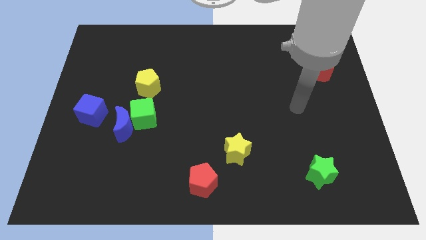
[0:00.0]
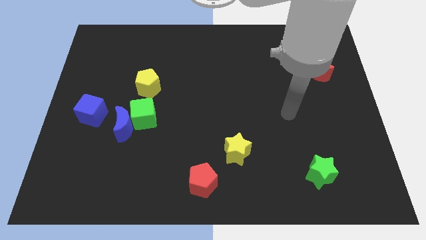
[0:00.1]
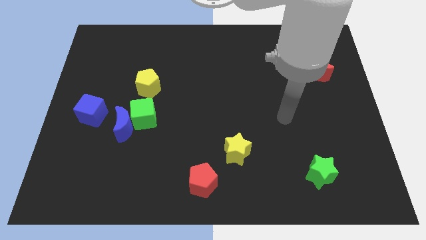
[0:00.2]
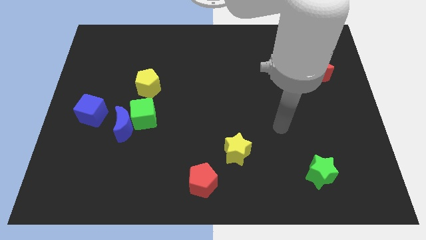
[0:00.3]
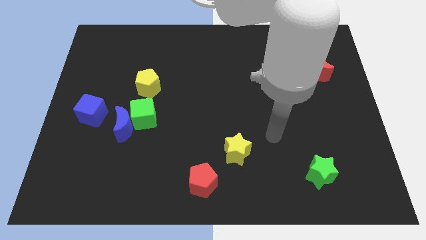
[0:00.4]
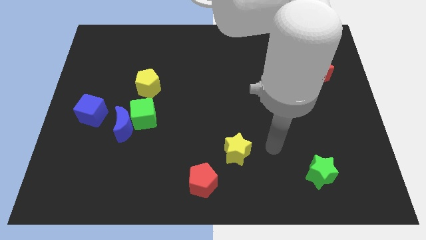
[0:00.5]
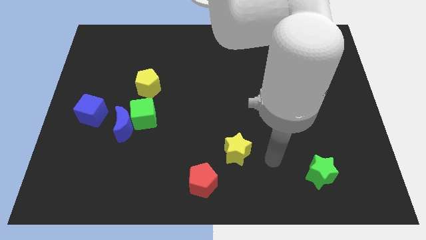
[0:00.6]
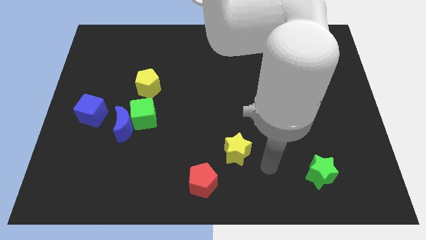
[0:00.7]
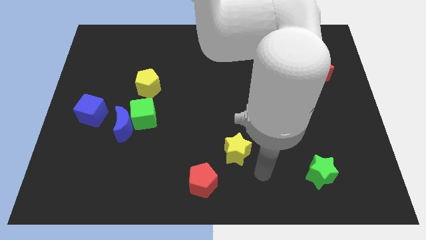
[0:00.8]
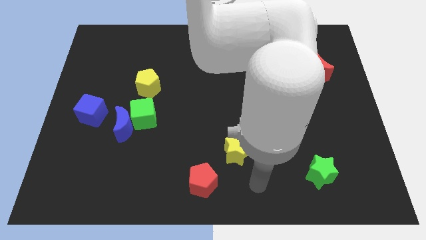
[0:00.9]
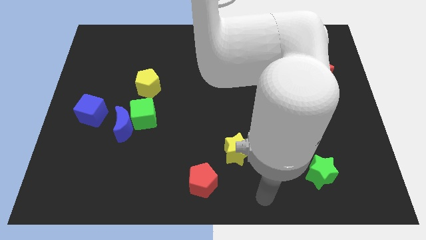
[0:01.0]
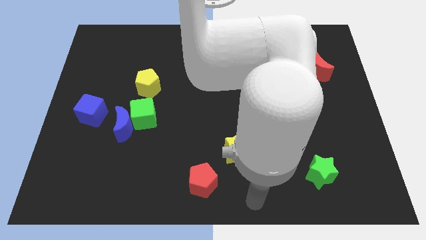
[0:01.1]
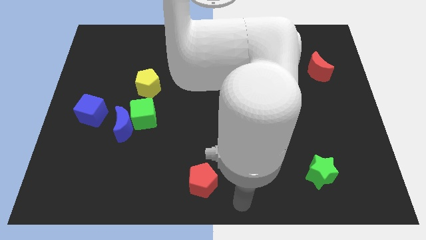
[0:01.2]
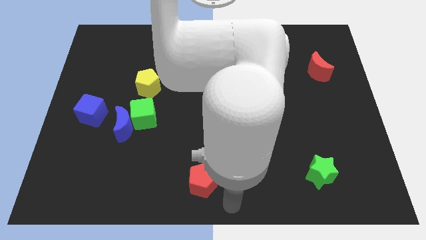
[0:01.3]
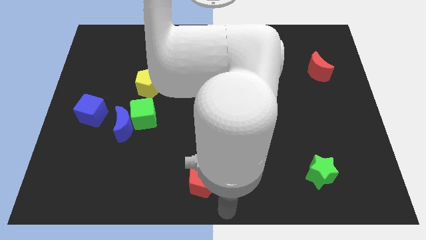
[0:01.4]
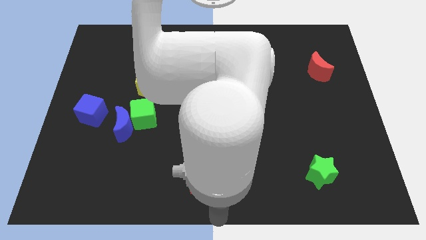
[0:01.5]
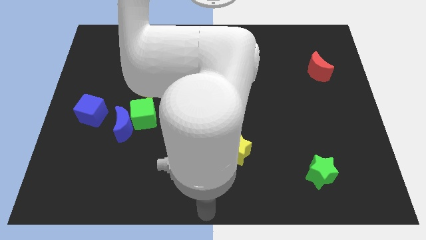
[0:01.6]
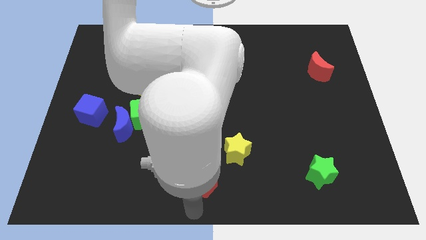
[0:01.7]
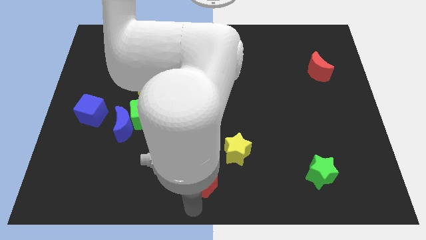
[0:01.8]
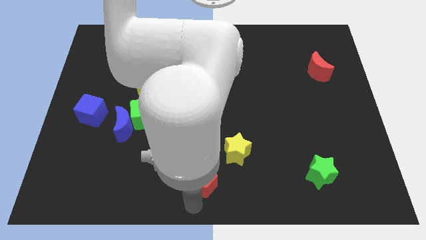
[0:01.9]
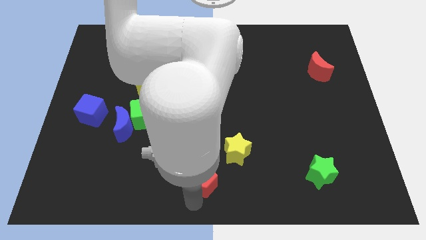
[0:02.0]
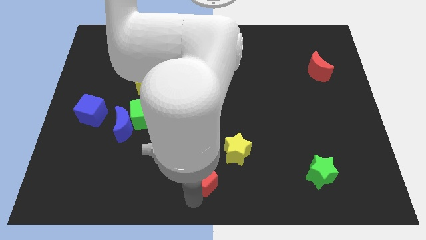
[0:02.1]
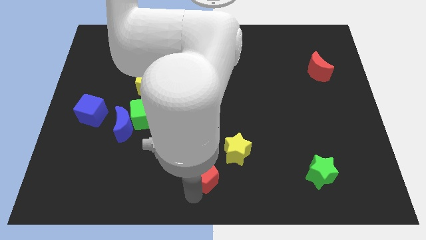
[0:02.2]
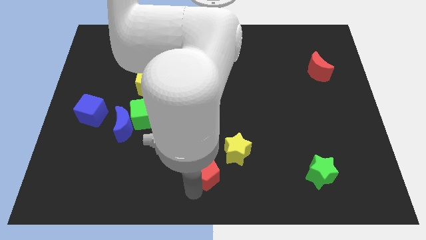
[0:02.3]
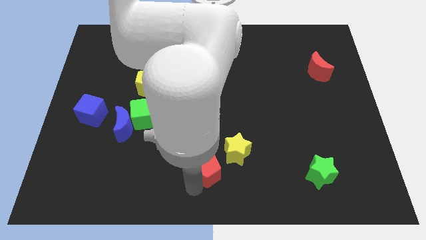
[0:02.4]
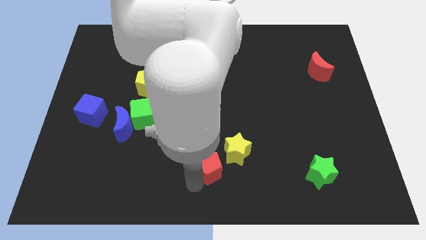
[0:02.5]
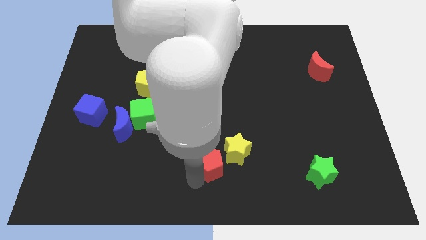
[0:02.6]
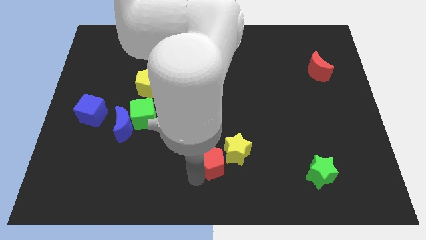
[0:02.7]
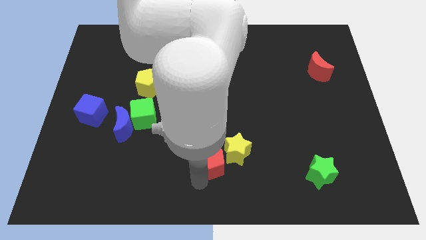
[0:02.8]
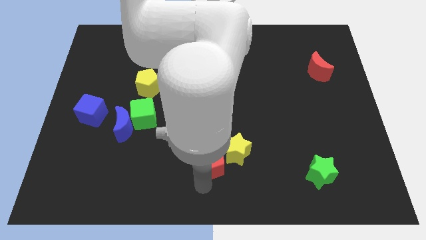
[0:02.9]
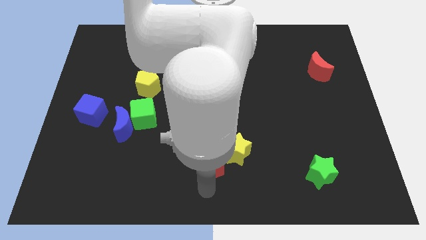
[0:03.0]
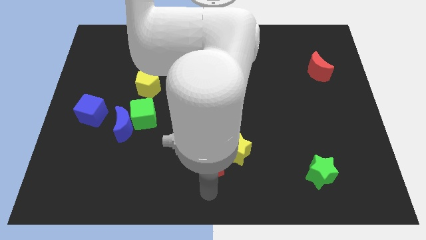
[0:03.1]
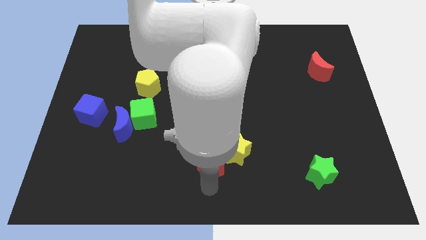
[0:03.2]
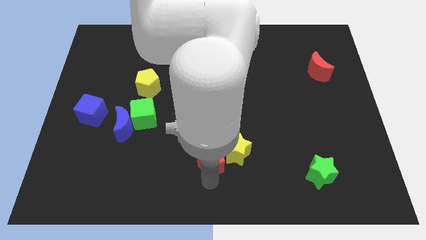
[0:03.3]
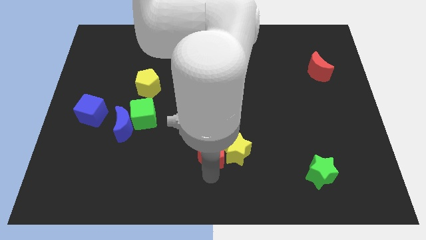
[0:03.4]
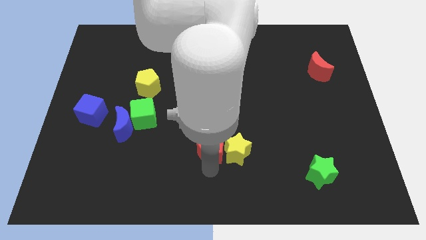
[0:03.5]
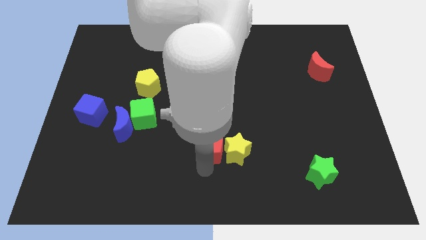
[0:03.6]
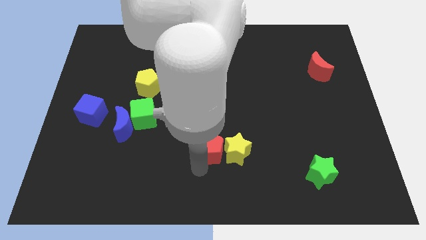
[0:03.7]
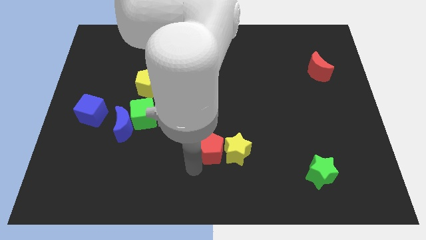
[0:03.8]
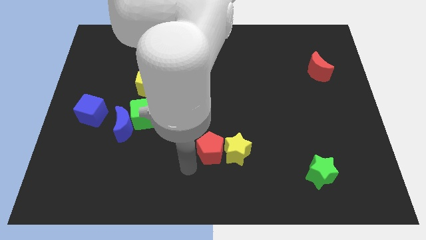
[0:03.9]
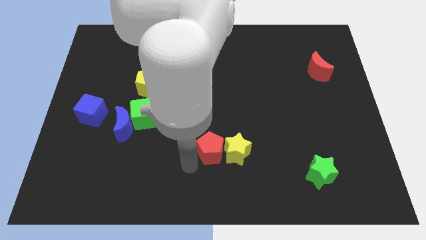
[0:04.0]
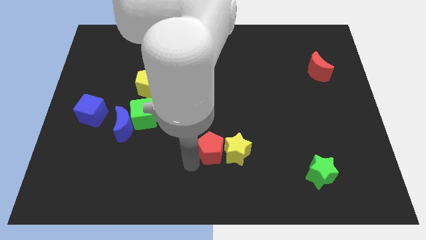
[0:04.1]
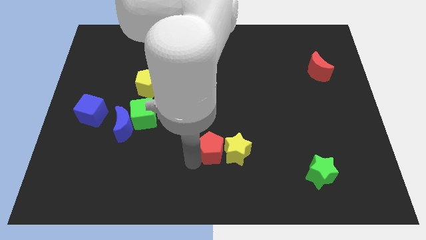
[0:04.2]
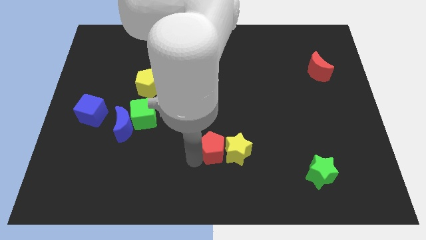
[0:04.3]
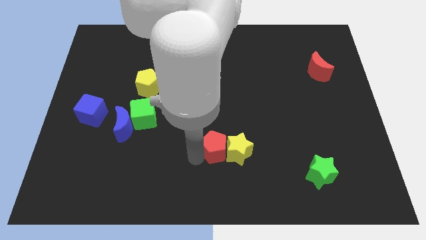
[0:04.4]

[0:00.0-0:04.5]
move the red pentagon diagonally up and right a little bit

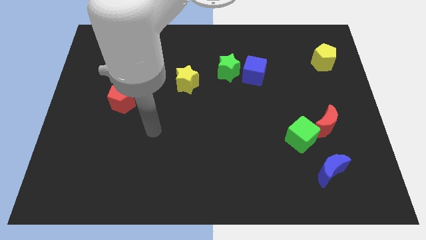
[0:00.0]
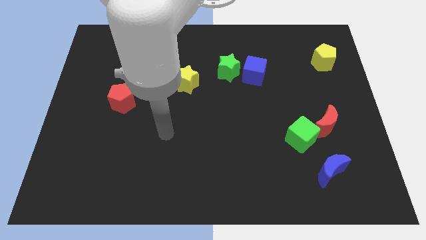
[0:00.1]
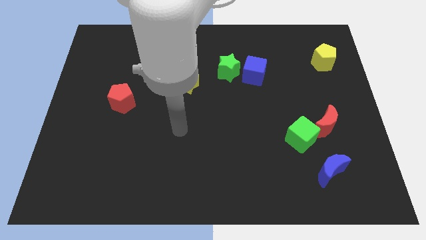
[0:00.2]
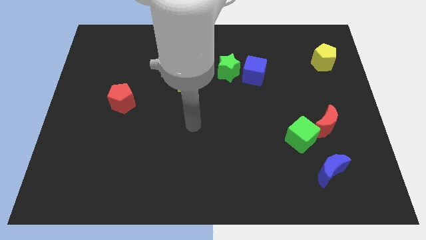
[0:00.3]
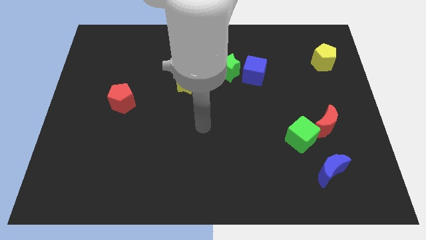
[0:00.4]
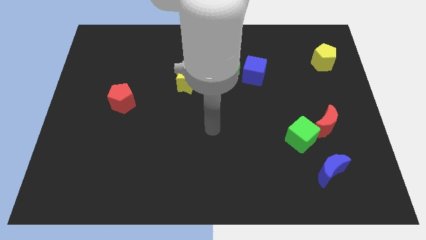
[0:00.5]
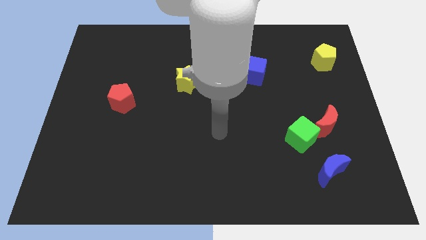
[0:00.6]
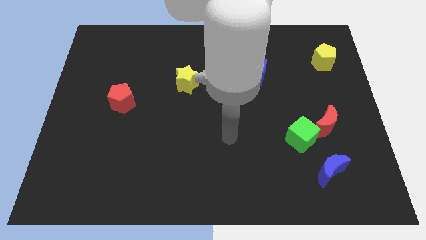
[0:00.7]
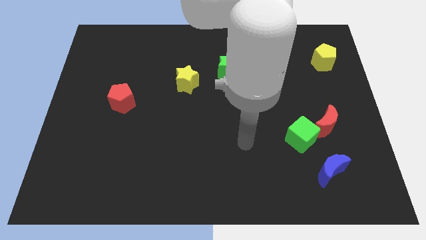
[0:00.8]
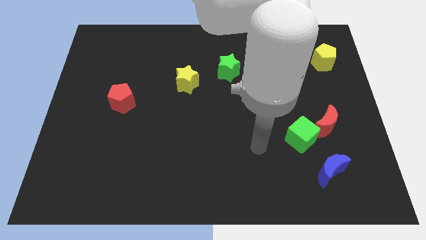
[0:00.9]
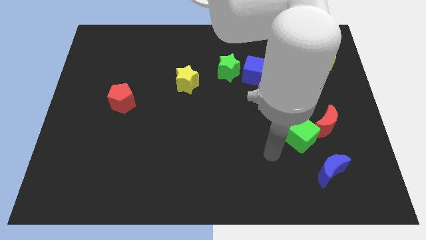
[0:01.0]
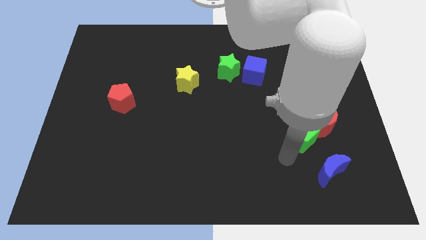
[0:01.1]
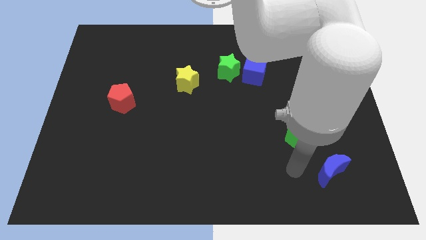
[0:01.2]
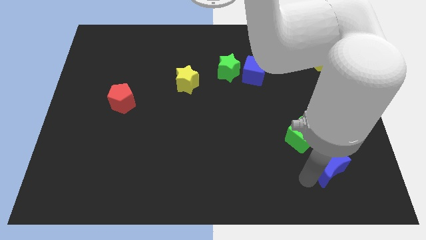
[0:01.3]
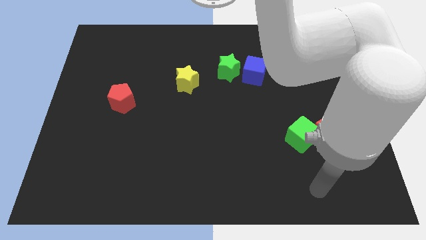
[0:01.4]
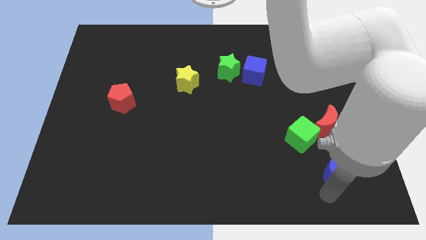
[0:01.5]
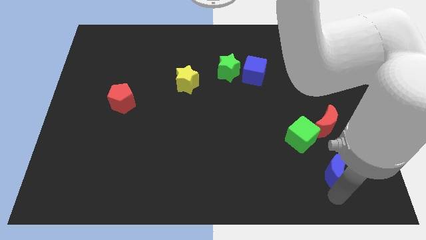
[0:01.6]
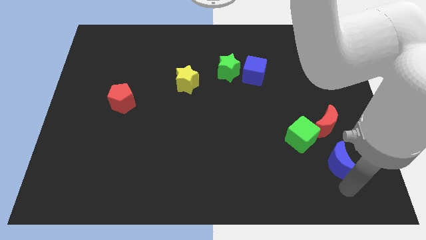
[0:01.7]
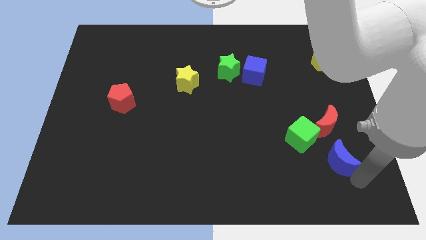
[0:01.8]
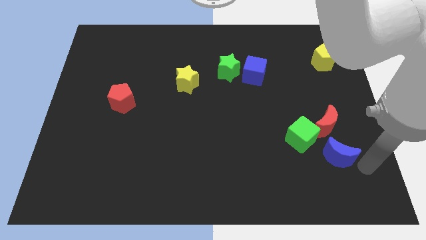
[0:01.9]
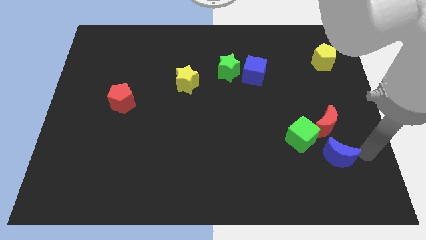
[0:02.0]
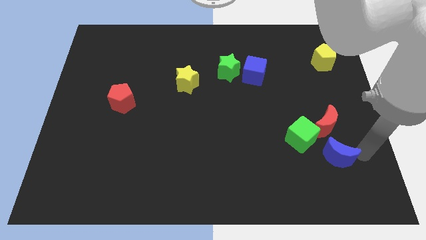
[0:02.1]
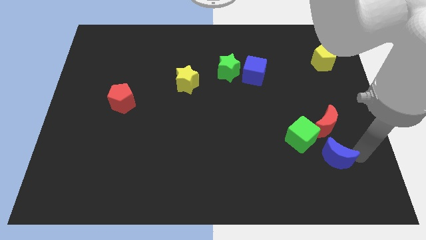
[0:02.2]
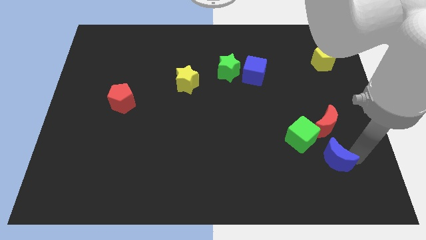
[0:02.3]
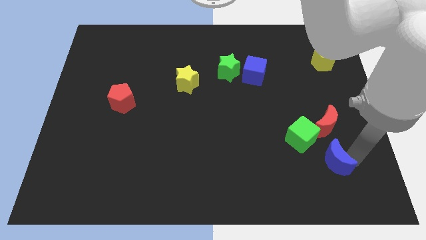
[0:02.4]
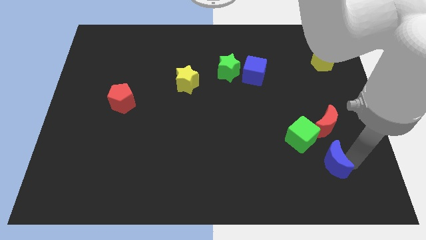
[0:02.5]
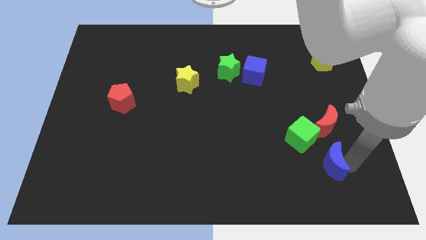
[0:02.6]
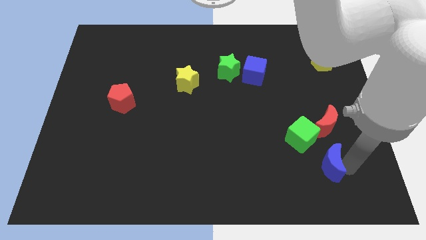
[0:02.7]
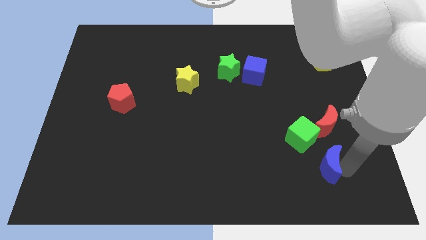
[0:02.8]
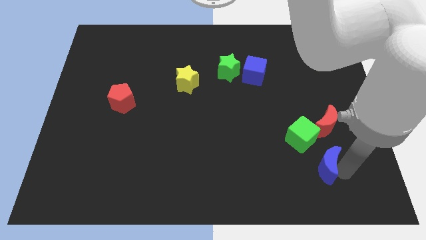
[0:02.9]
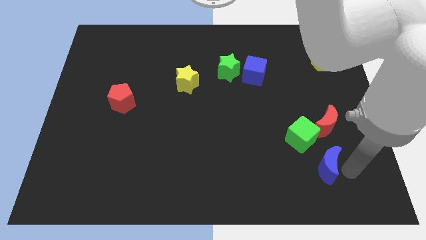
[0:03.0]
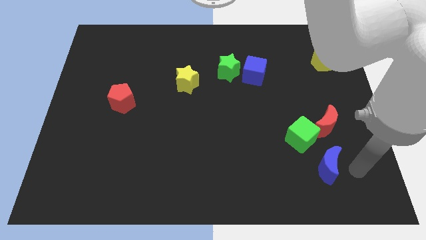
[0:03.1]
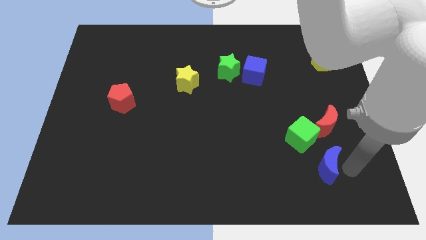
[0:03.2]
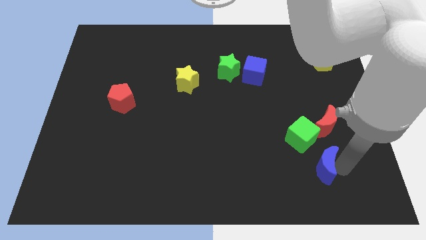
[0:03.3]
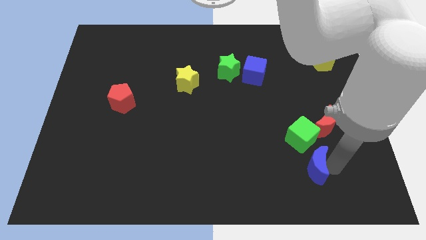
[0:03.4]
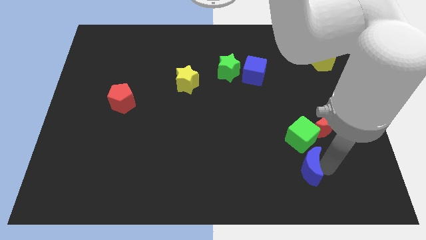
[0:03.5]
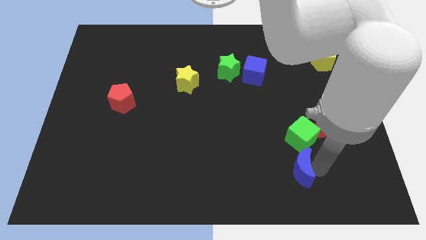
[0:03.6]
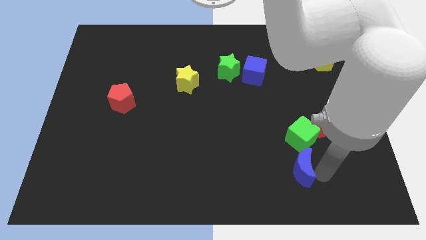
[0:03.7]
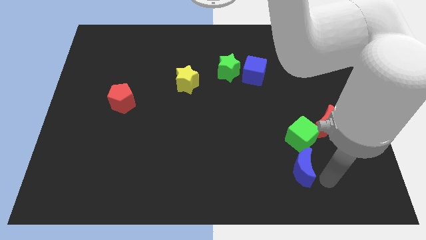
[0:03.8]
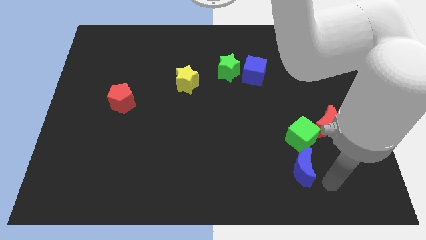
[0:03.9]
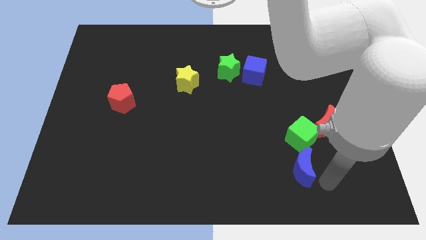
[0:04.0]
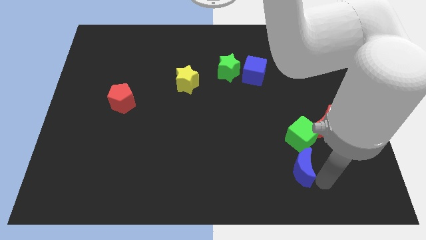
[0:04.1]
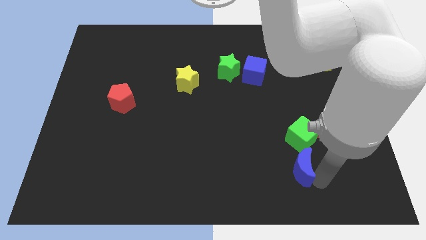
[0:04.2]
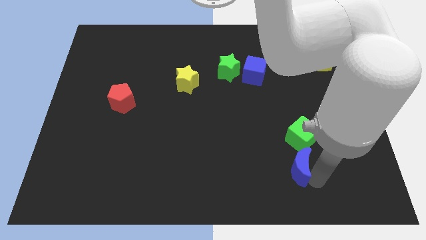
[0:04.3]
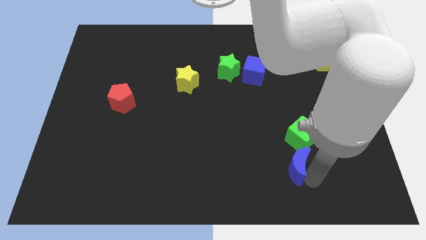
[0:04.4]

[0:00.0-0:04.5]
slightly push the blue moon to the left
